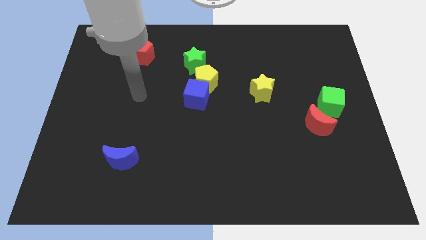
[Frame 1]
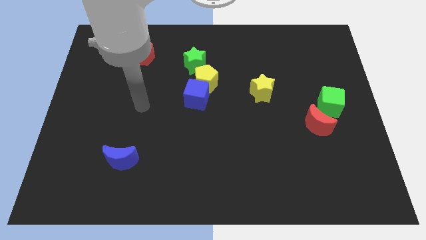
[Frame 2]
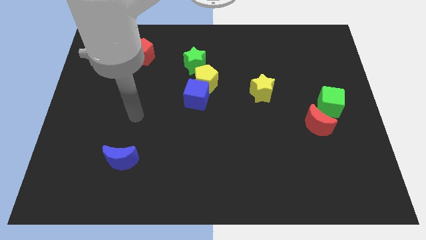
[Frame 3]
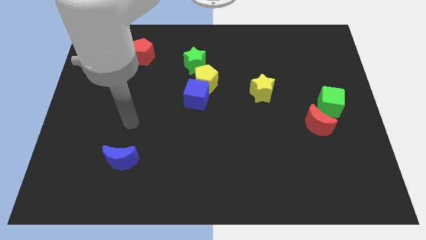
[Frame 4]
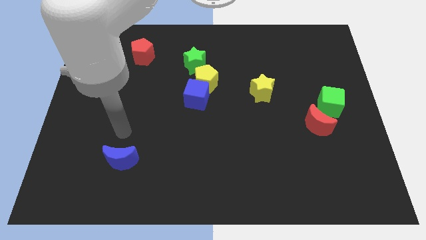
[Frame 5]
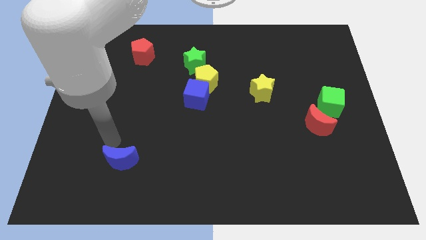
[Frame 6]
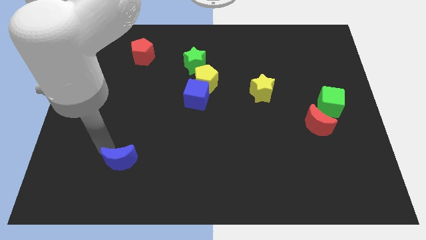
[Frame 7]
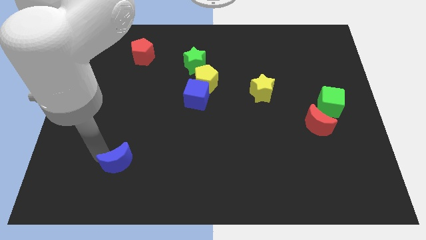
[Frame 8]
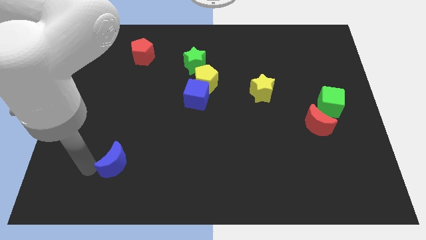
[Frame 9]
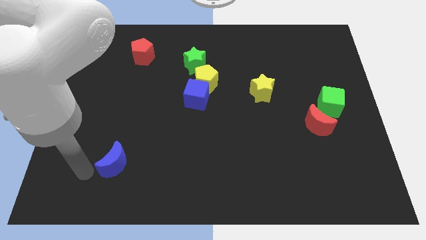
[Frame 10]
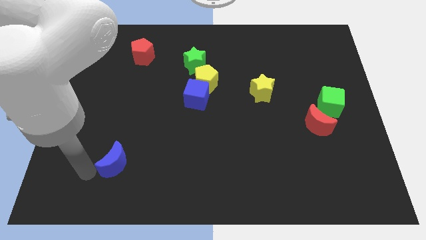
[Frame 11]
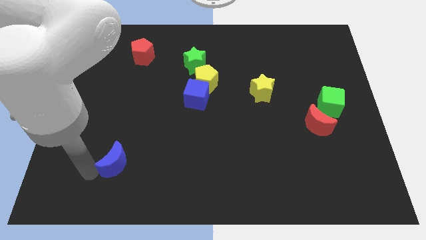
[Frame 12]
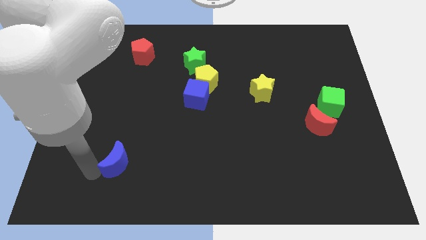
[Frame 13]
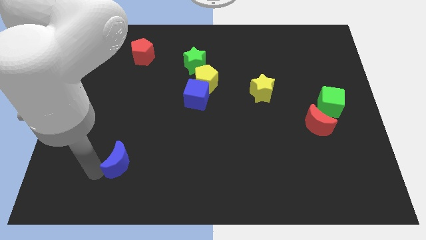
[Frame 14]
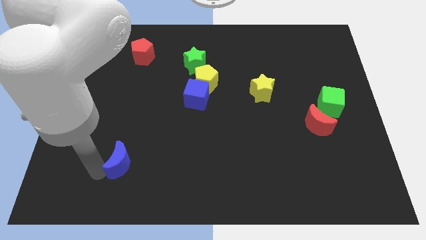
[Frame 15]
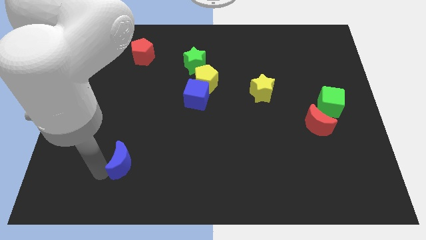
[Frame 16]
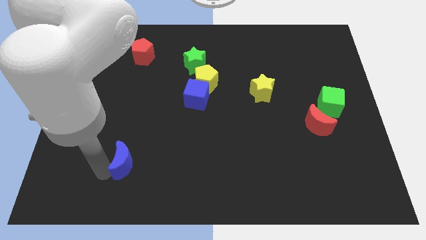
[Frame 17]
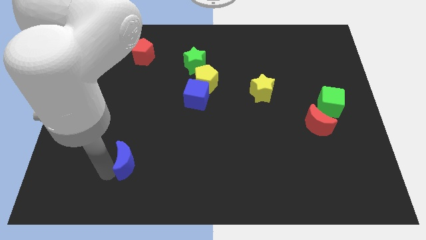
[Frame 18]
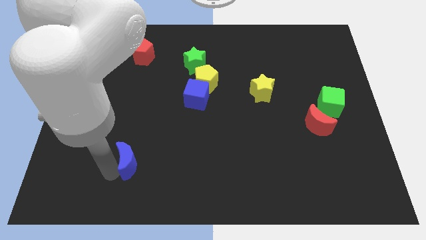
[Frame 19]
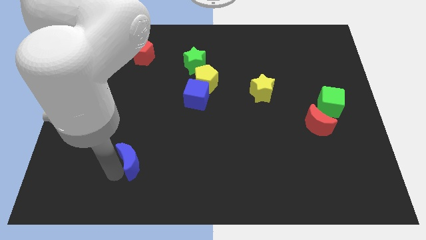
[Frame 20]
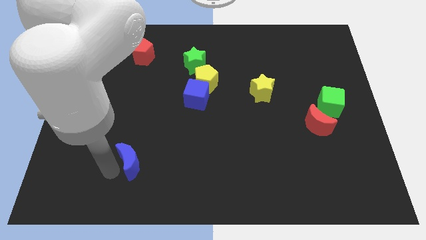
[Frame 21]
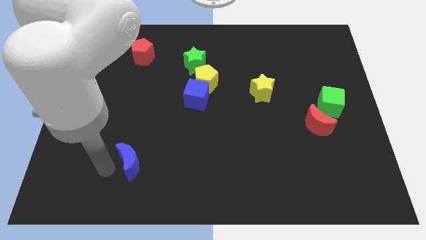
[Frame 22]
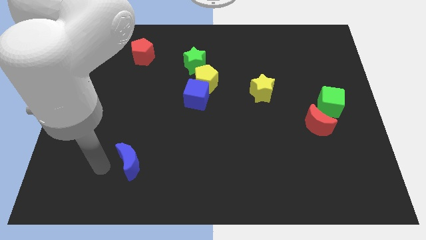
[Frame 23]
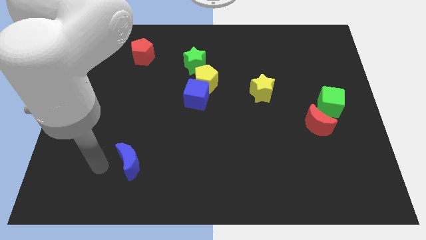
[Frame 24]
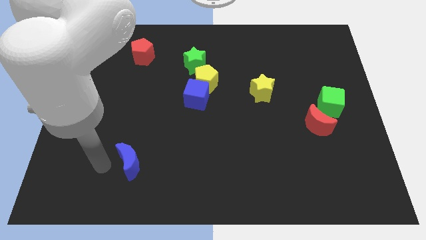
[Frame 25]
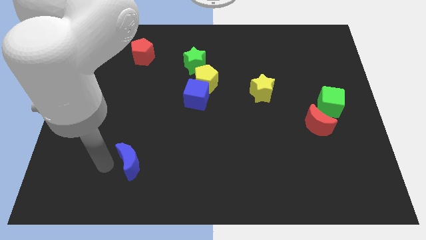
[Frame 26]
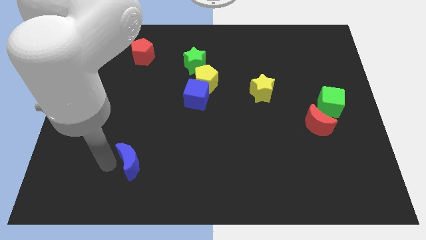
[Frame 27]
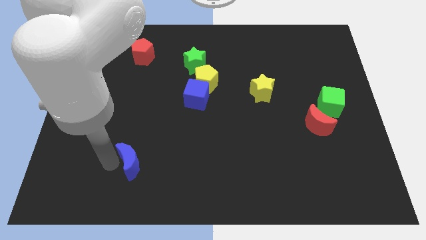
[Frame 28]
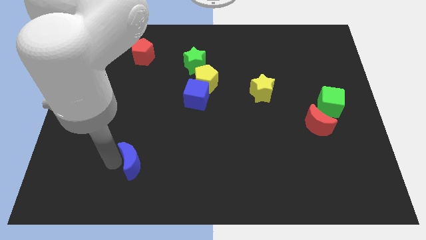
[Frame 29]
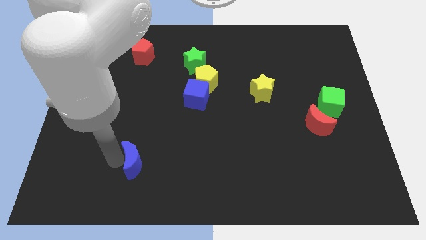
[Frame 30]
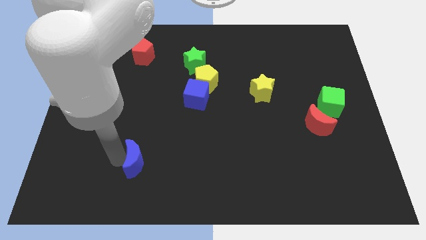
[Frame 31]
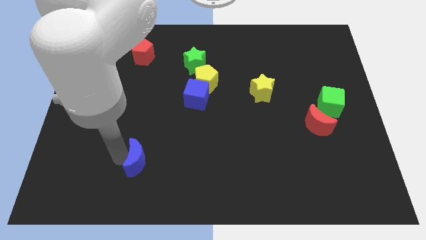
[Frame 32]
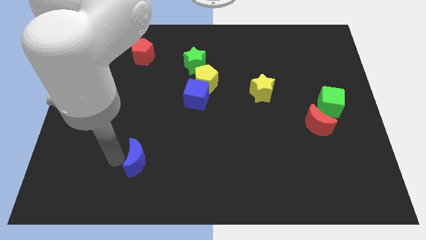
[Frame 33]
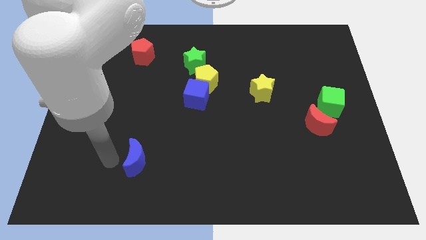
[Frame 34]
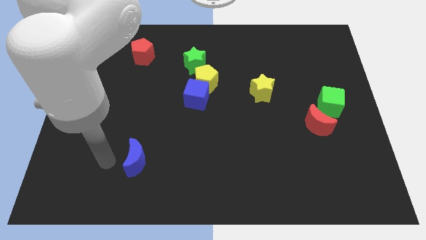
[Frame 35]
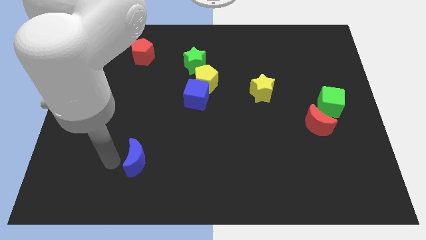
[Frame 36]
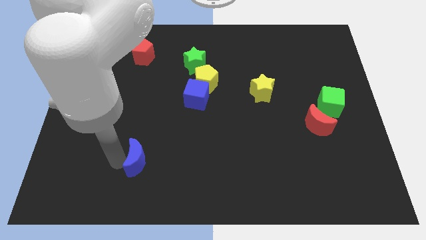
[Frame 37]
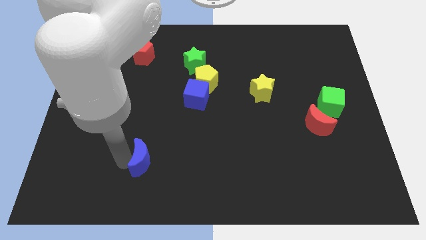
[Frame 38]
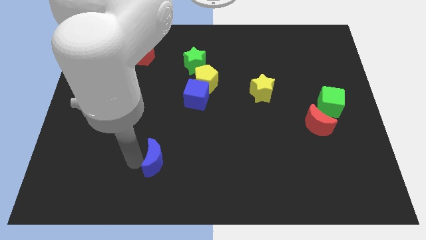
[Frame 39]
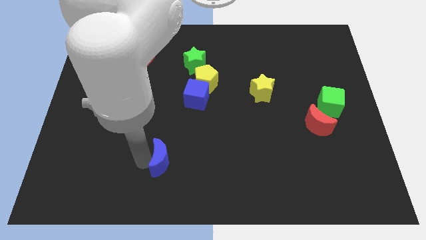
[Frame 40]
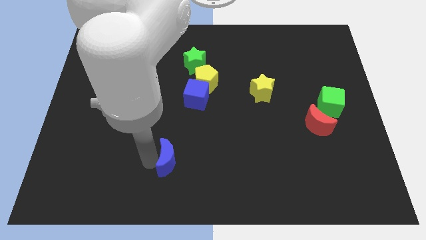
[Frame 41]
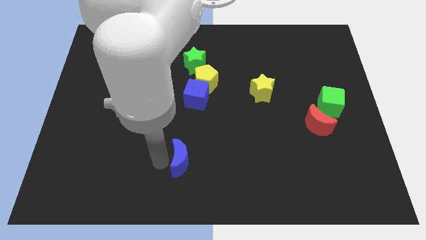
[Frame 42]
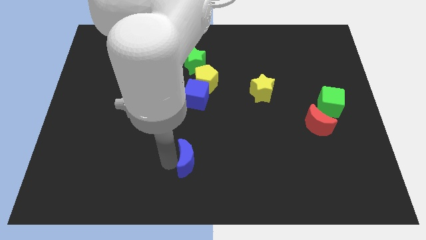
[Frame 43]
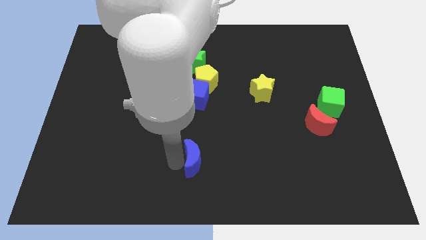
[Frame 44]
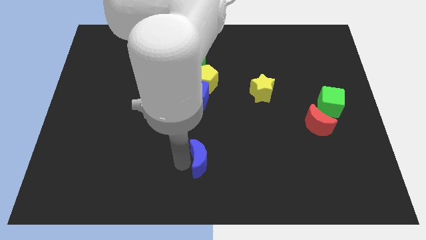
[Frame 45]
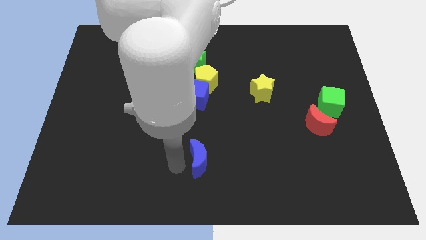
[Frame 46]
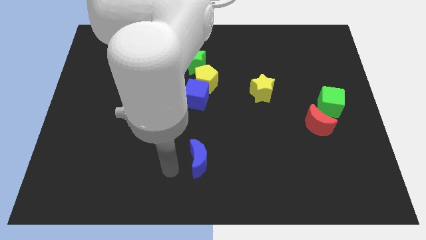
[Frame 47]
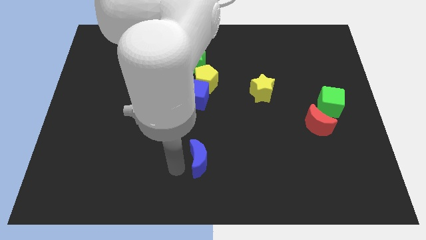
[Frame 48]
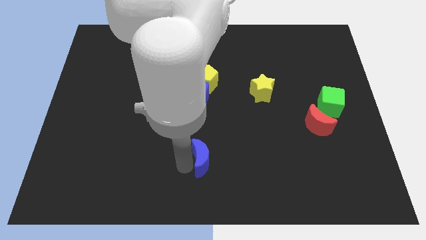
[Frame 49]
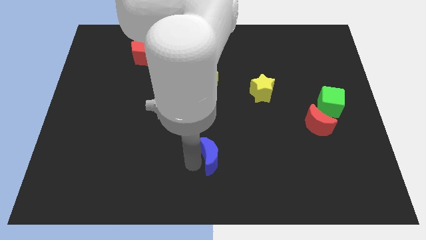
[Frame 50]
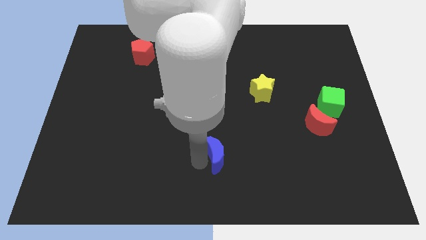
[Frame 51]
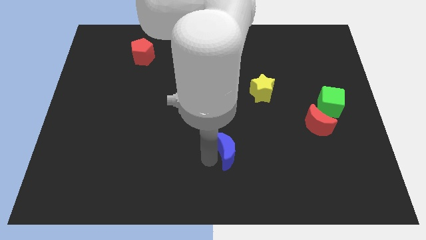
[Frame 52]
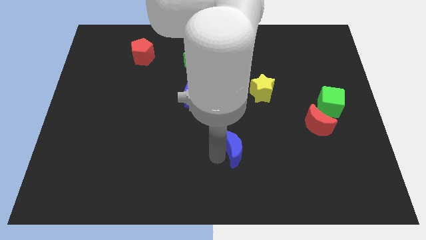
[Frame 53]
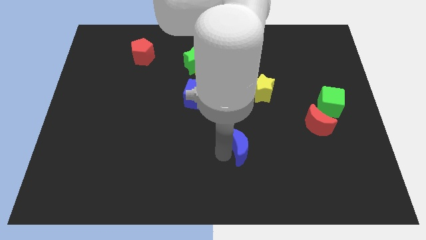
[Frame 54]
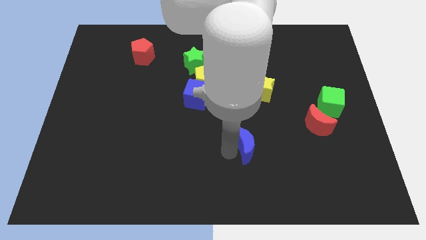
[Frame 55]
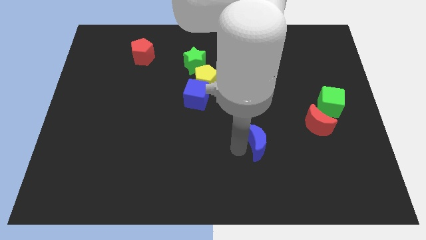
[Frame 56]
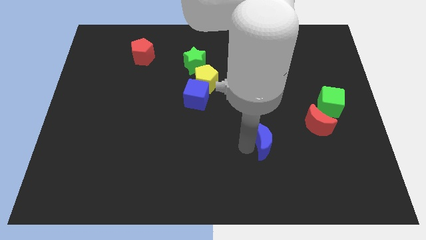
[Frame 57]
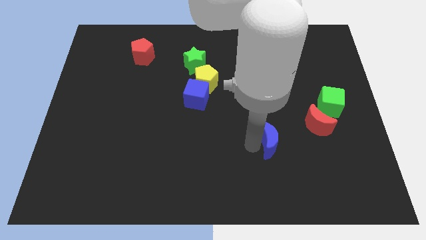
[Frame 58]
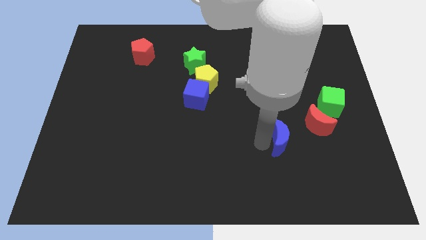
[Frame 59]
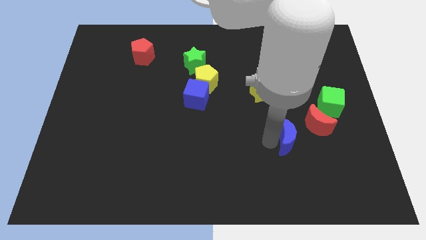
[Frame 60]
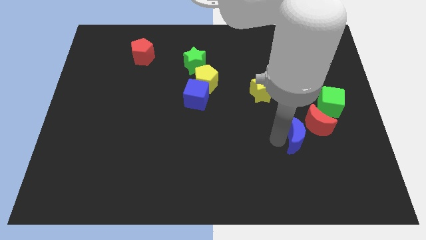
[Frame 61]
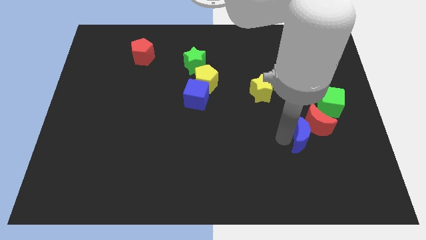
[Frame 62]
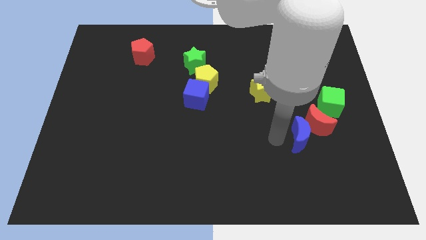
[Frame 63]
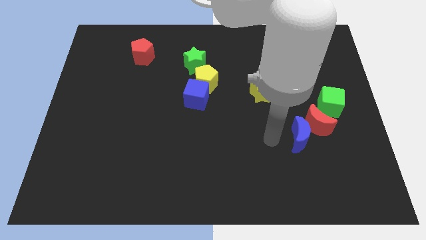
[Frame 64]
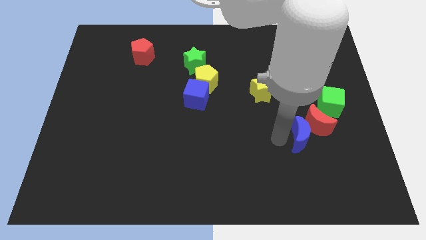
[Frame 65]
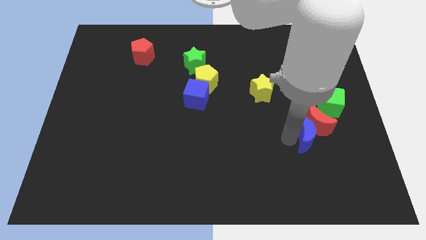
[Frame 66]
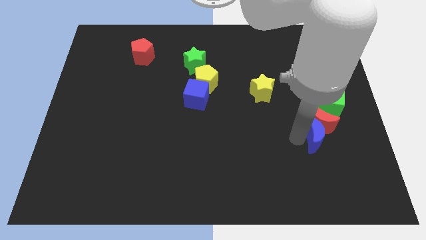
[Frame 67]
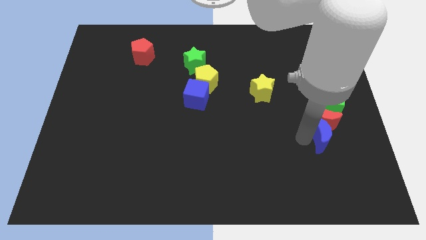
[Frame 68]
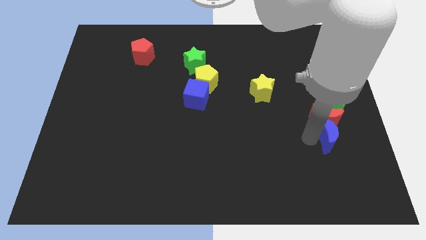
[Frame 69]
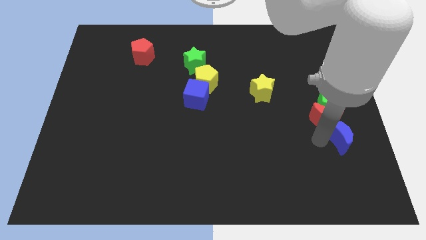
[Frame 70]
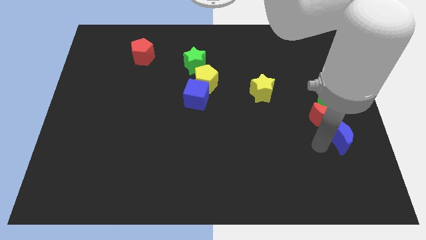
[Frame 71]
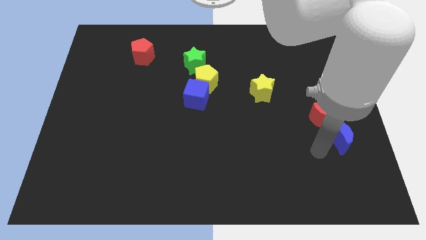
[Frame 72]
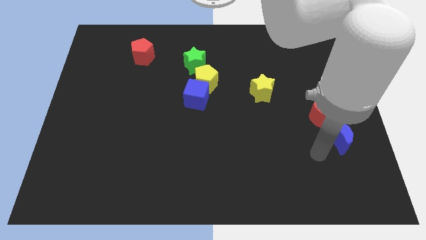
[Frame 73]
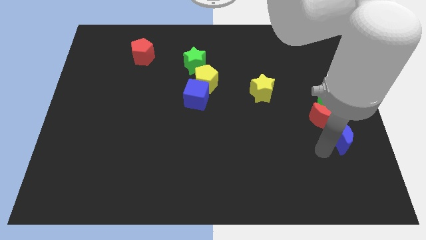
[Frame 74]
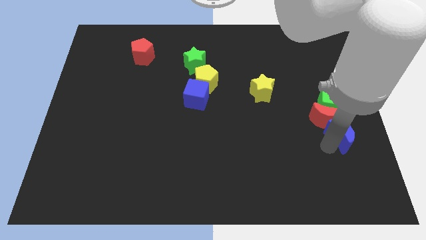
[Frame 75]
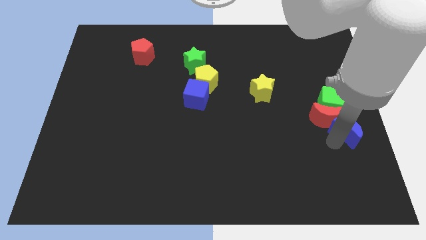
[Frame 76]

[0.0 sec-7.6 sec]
put the blue moon to the right side of the board

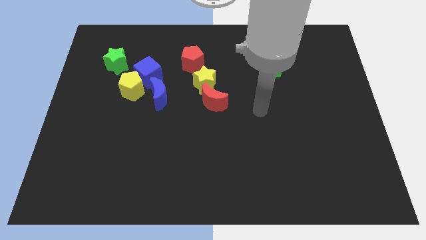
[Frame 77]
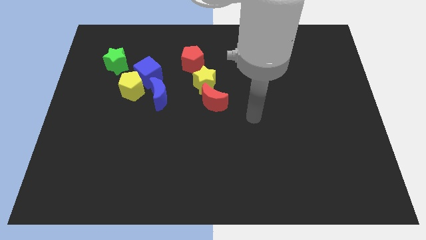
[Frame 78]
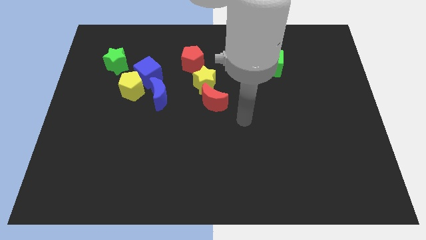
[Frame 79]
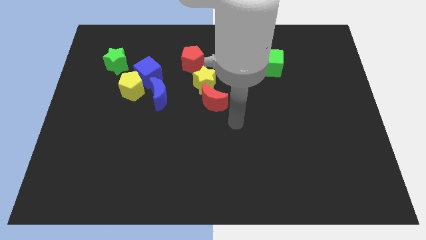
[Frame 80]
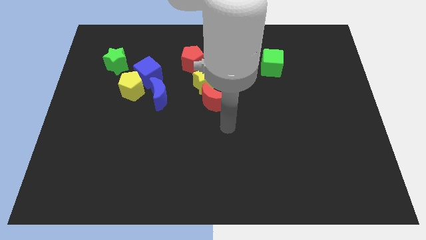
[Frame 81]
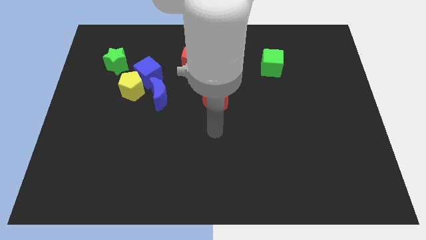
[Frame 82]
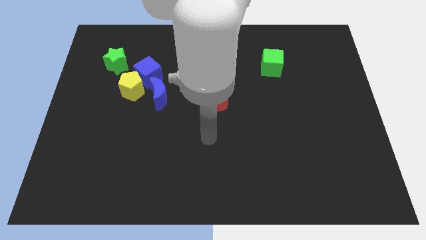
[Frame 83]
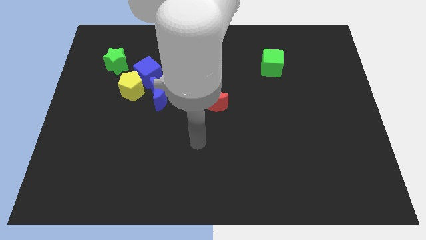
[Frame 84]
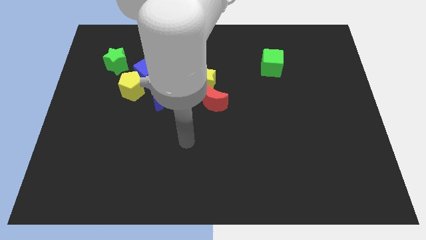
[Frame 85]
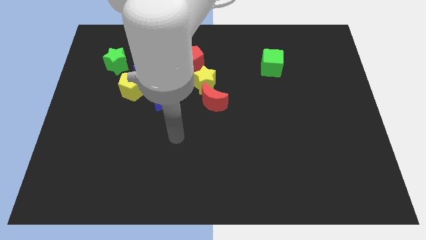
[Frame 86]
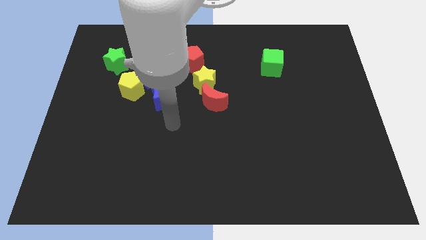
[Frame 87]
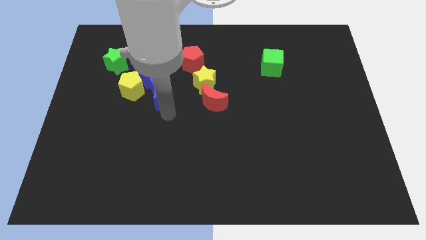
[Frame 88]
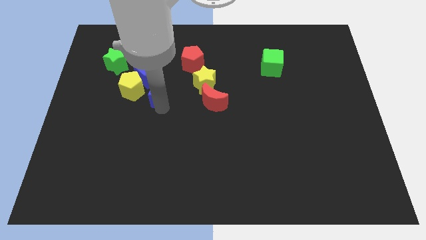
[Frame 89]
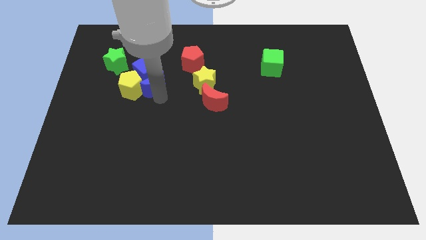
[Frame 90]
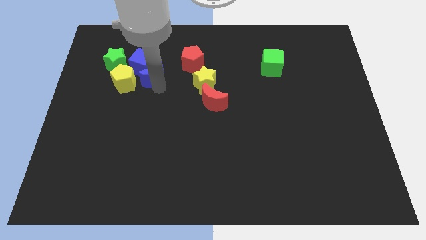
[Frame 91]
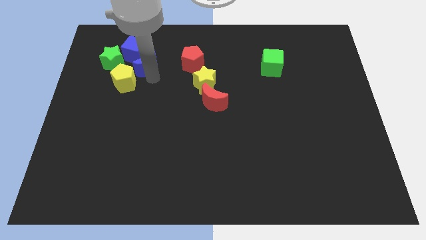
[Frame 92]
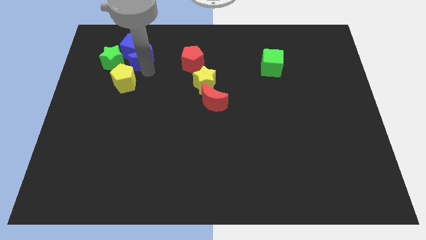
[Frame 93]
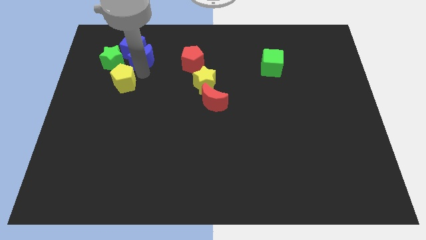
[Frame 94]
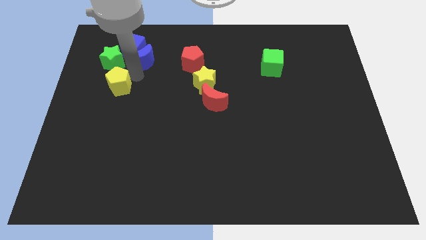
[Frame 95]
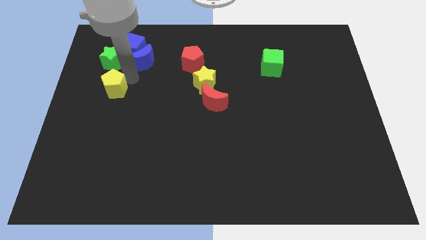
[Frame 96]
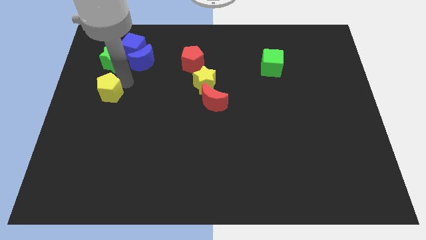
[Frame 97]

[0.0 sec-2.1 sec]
move the yellow pentagon to the center left
